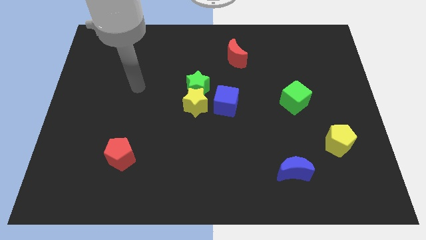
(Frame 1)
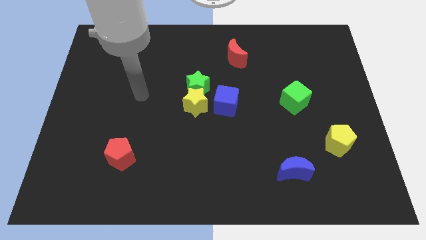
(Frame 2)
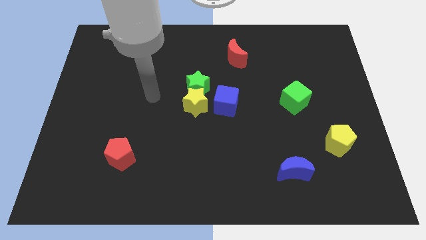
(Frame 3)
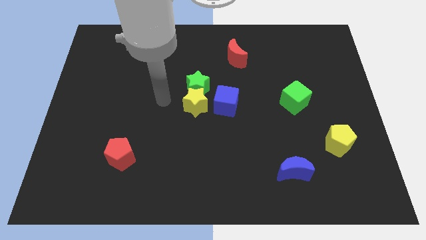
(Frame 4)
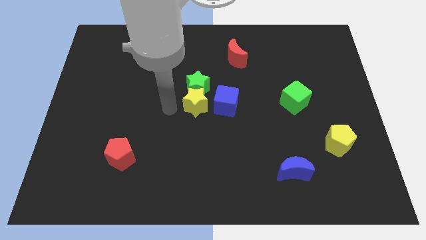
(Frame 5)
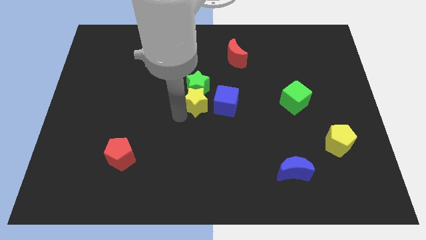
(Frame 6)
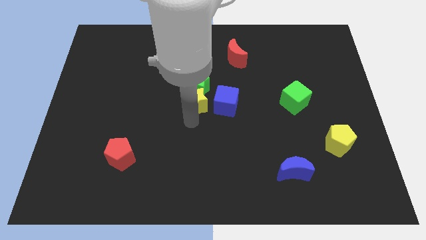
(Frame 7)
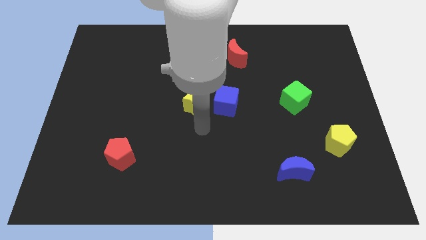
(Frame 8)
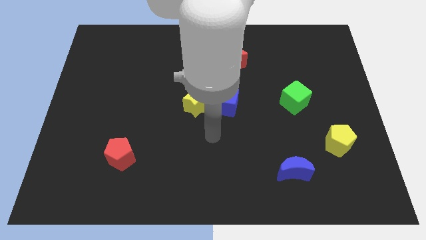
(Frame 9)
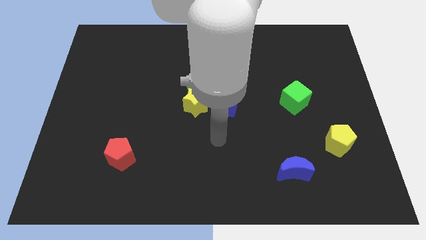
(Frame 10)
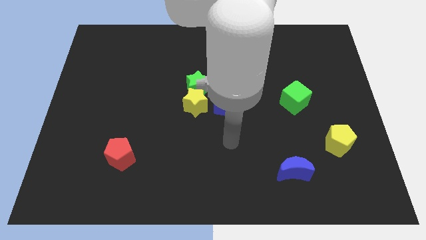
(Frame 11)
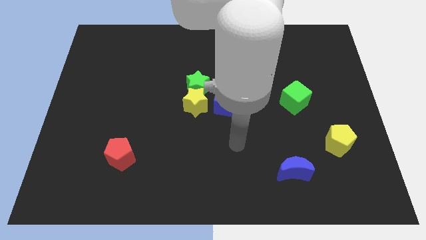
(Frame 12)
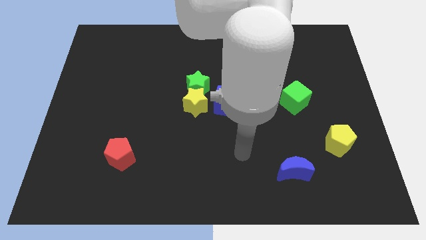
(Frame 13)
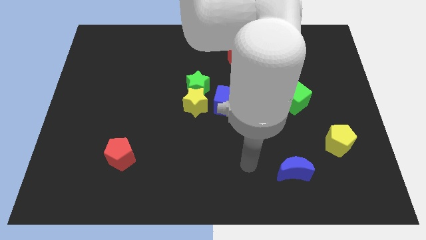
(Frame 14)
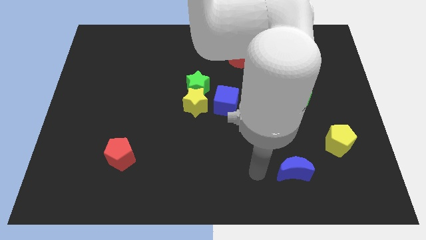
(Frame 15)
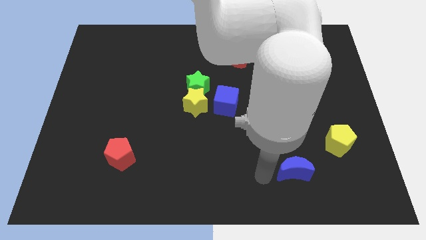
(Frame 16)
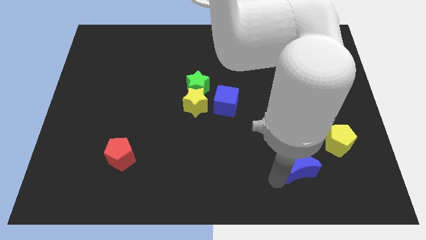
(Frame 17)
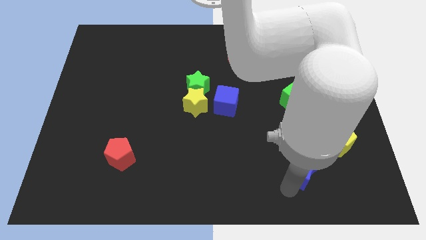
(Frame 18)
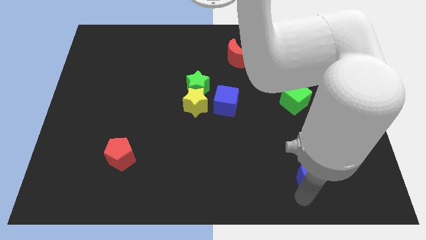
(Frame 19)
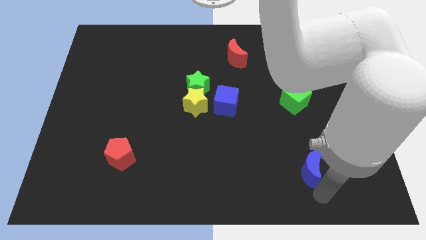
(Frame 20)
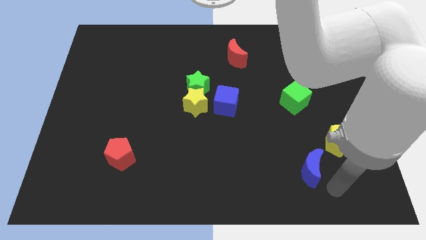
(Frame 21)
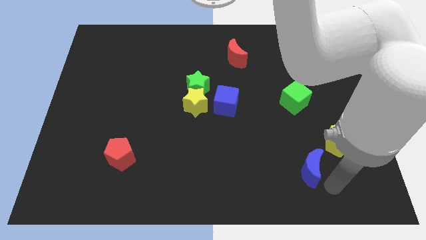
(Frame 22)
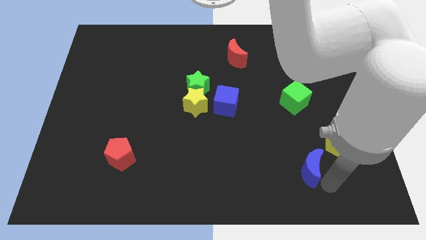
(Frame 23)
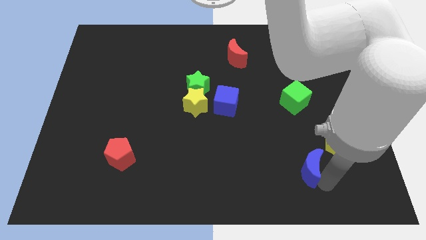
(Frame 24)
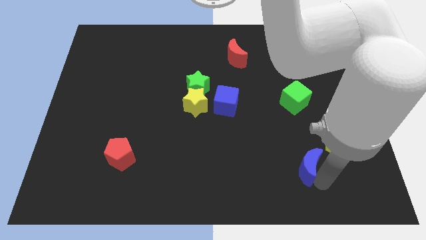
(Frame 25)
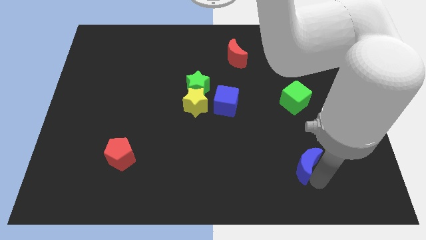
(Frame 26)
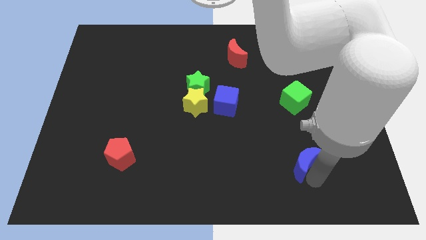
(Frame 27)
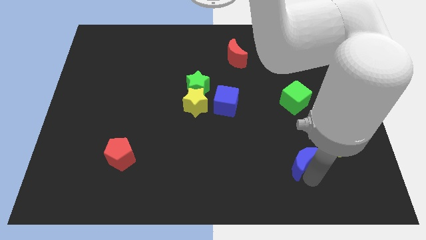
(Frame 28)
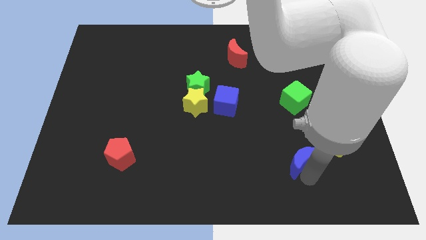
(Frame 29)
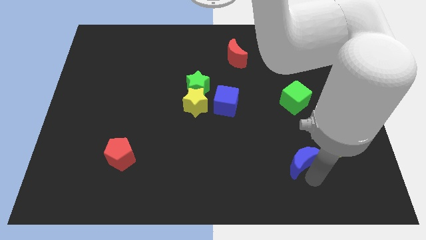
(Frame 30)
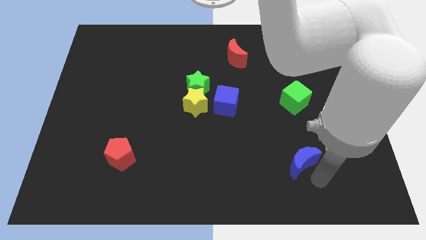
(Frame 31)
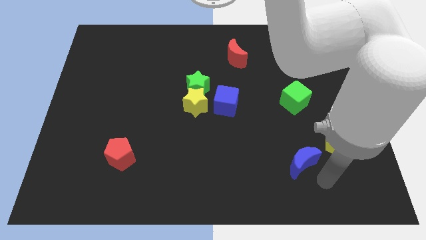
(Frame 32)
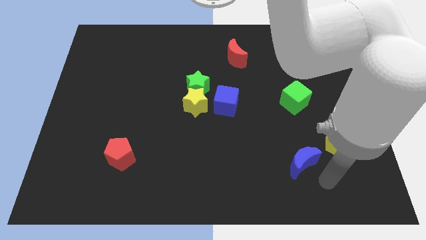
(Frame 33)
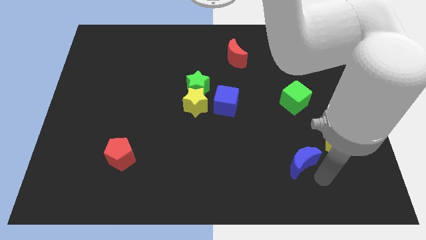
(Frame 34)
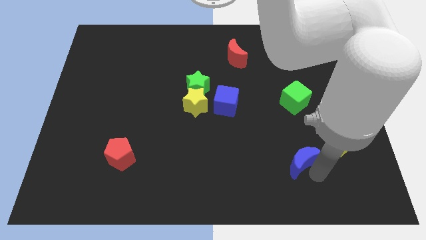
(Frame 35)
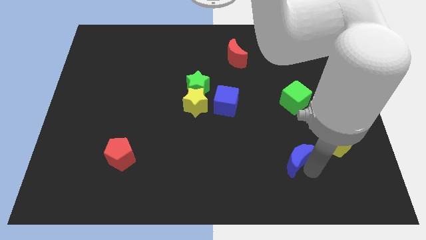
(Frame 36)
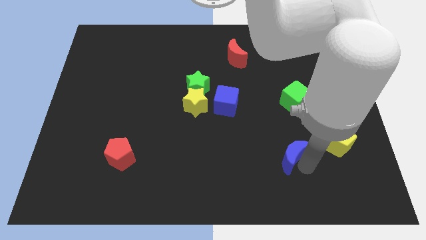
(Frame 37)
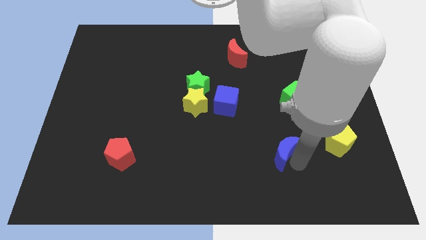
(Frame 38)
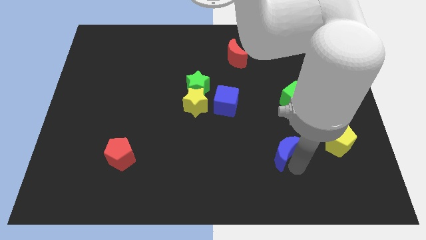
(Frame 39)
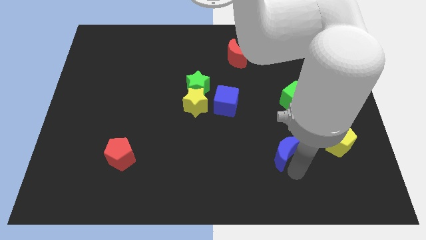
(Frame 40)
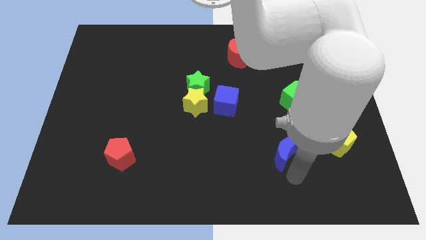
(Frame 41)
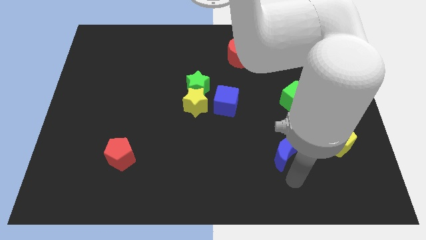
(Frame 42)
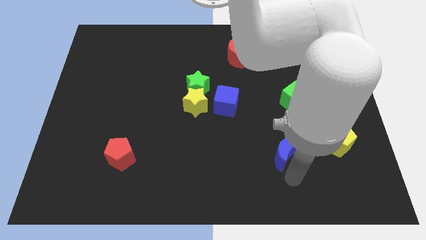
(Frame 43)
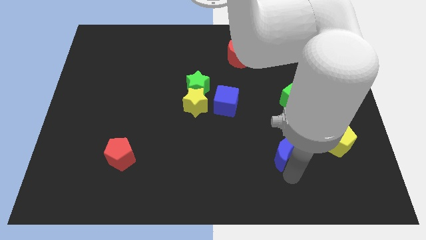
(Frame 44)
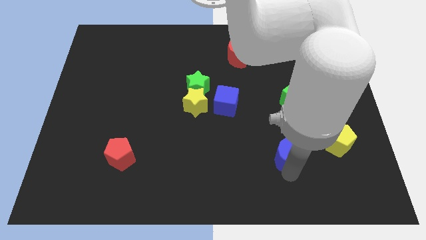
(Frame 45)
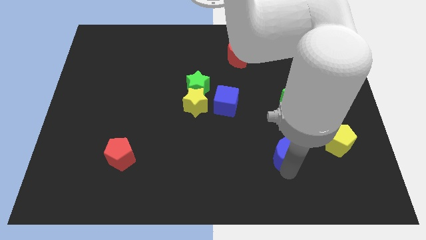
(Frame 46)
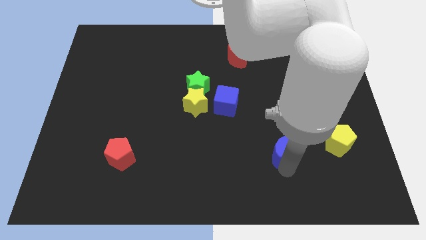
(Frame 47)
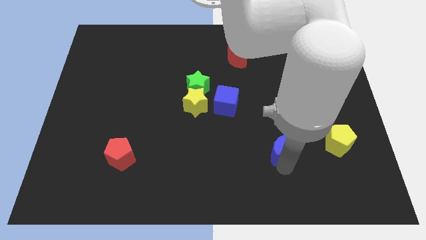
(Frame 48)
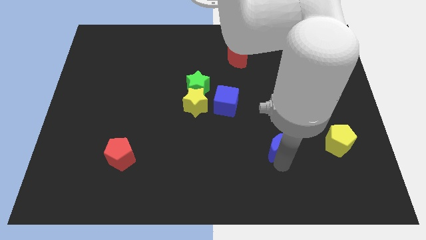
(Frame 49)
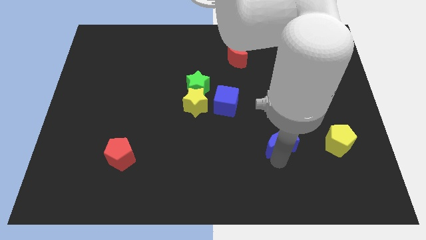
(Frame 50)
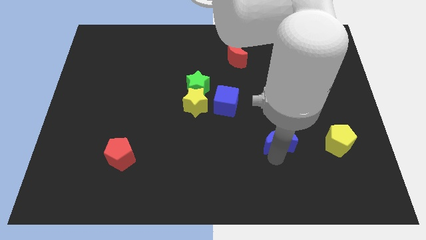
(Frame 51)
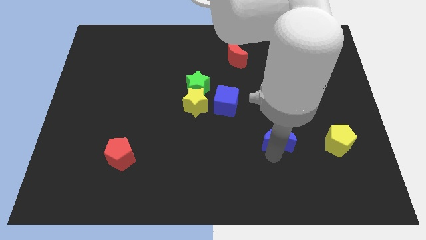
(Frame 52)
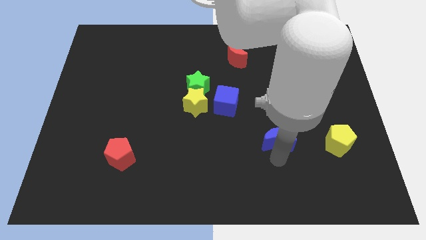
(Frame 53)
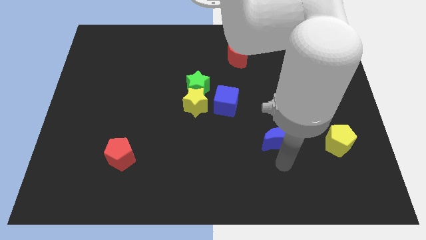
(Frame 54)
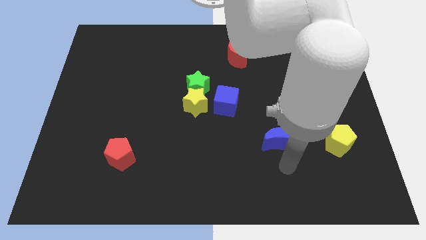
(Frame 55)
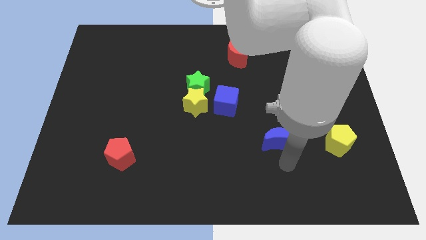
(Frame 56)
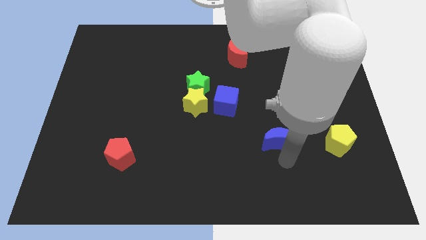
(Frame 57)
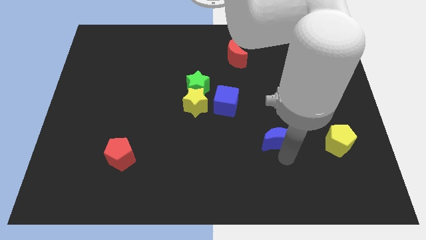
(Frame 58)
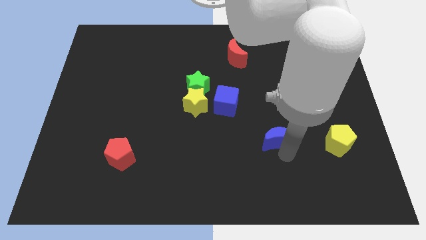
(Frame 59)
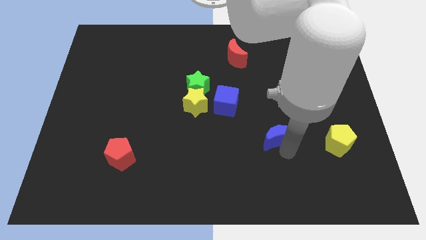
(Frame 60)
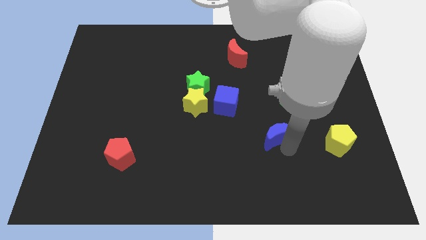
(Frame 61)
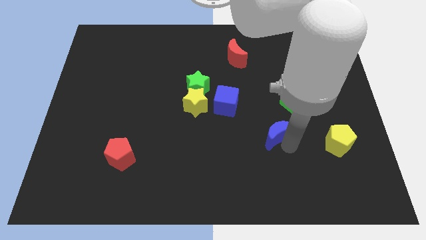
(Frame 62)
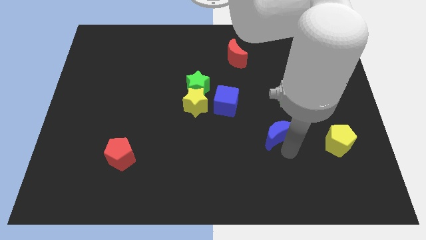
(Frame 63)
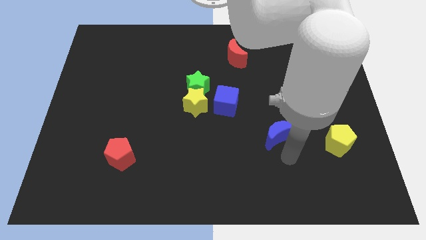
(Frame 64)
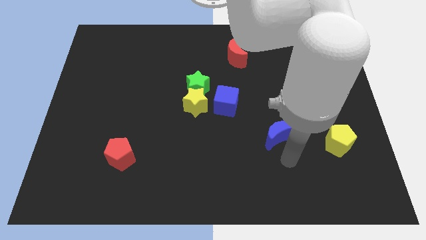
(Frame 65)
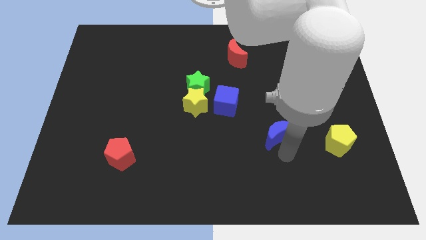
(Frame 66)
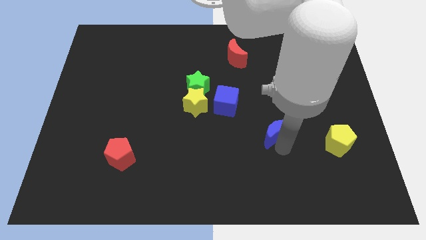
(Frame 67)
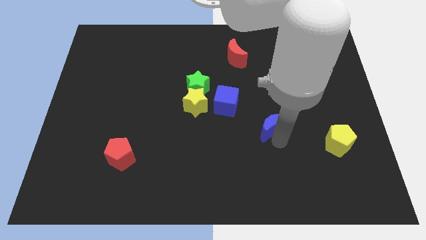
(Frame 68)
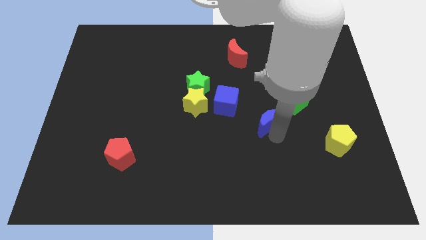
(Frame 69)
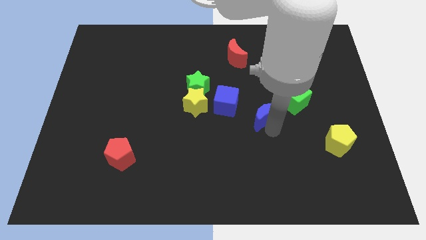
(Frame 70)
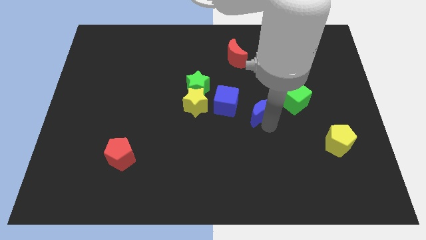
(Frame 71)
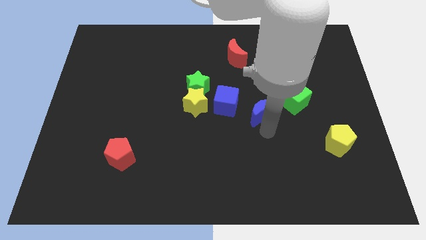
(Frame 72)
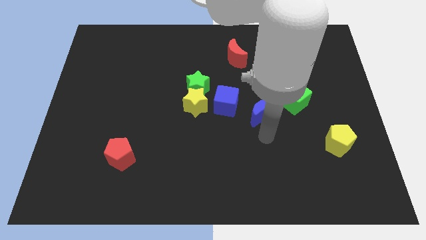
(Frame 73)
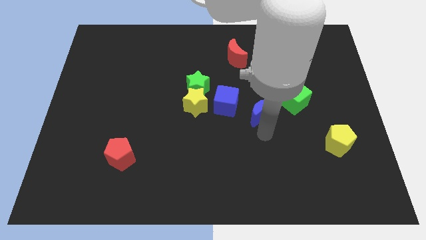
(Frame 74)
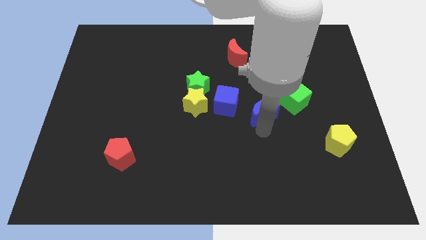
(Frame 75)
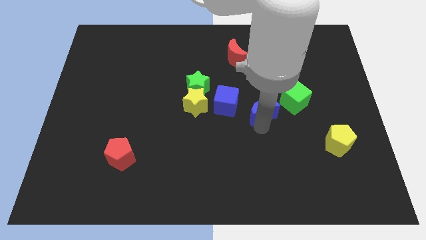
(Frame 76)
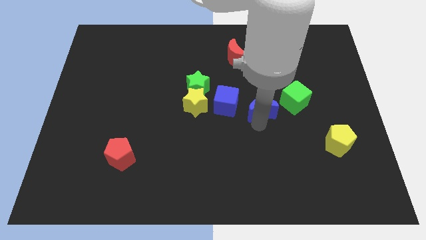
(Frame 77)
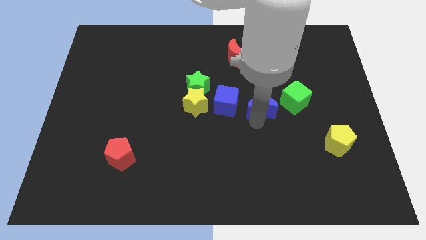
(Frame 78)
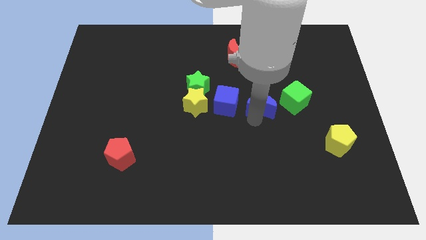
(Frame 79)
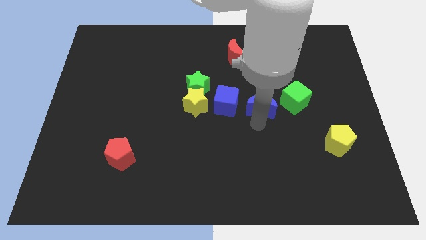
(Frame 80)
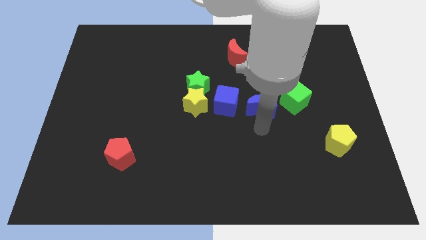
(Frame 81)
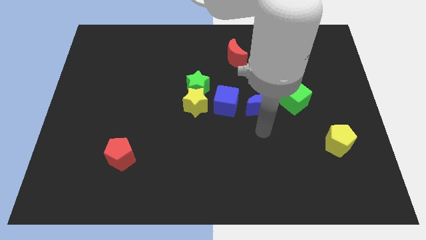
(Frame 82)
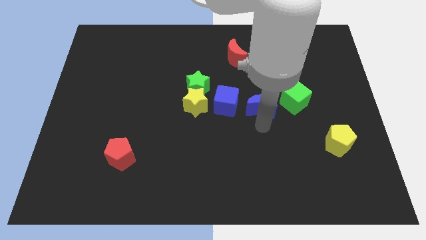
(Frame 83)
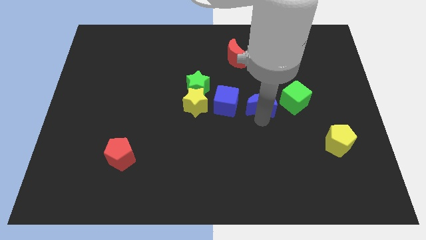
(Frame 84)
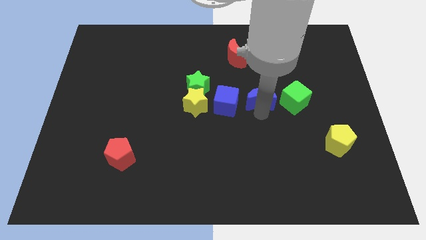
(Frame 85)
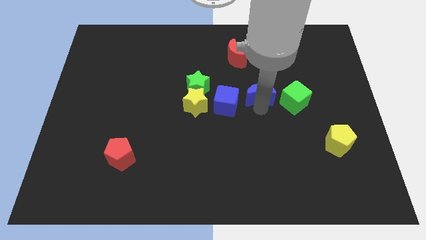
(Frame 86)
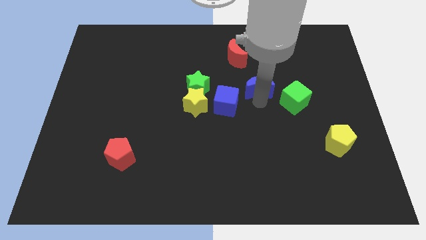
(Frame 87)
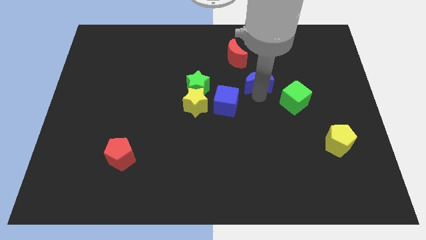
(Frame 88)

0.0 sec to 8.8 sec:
push the blue moon to the bottom right of the red moon
